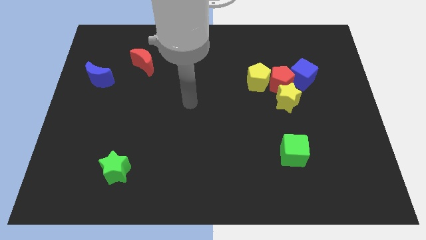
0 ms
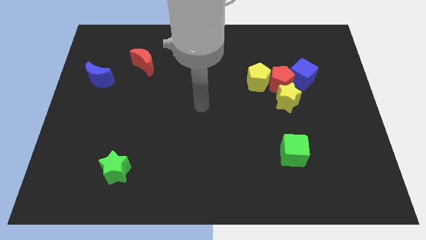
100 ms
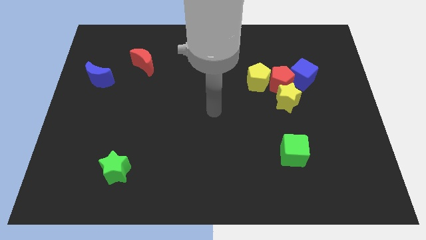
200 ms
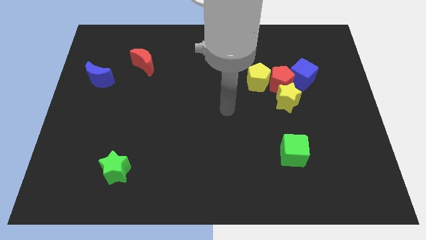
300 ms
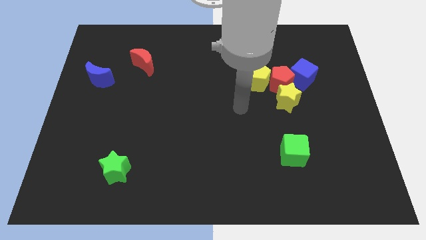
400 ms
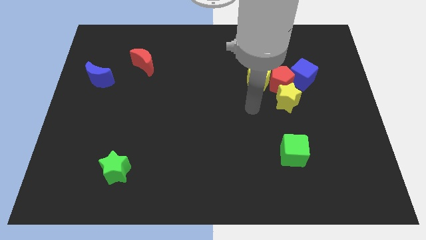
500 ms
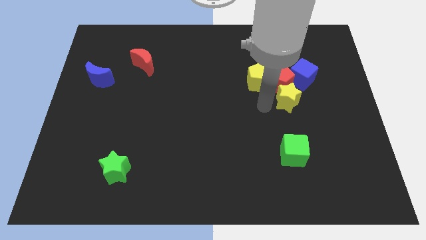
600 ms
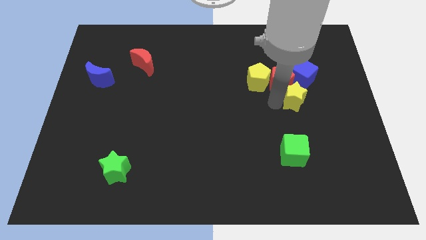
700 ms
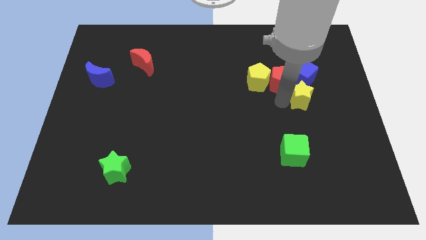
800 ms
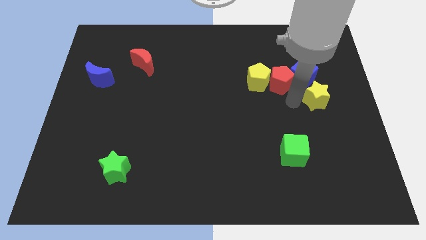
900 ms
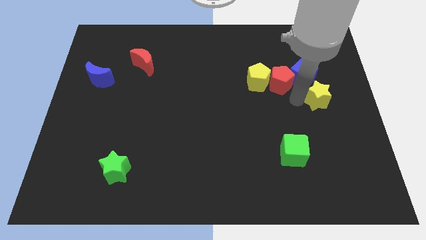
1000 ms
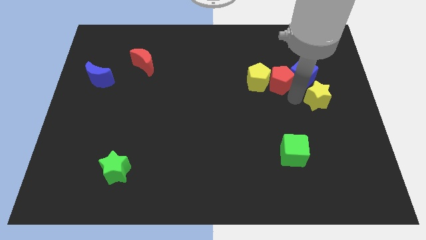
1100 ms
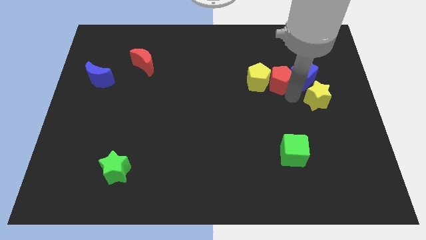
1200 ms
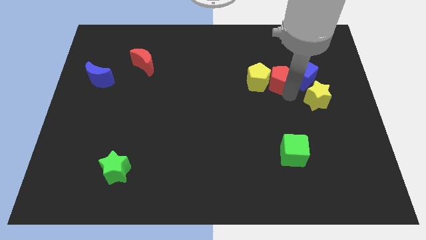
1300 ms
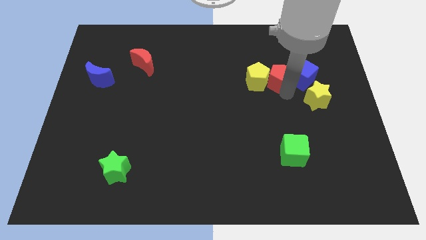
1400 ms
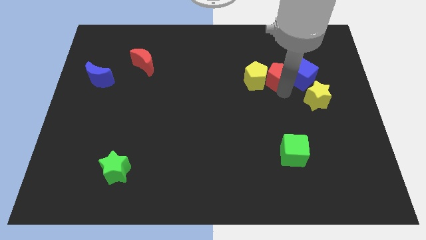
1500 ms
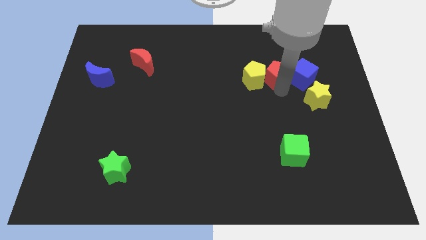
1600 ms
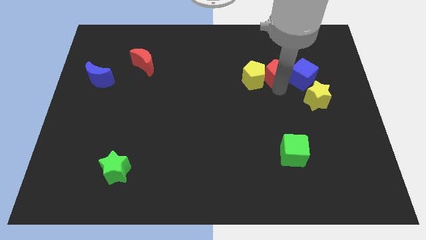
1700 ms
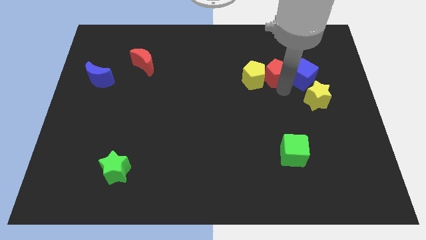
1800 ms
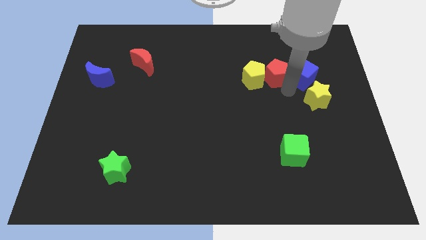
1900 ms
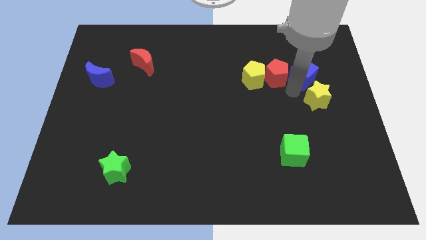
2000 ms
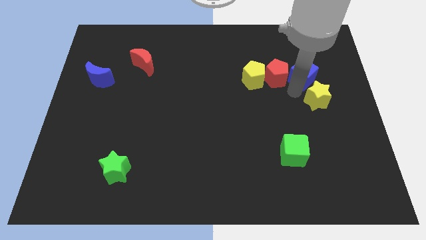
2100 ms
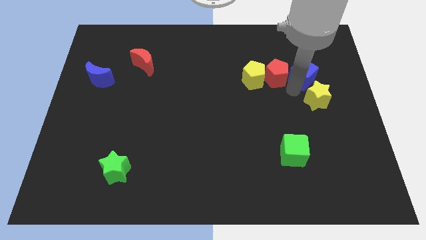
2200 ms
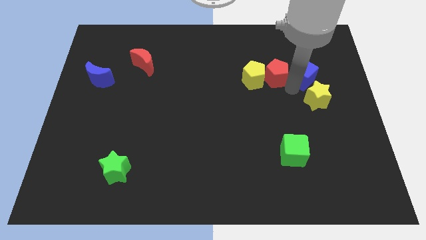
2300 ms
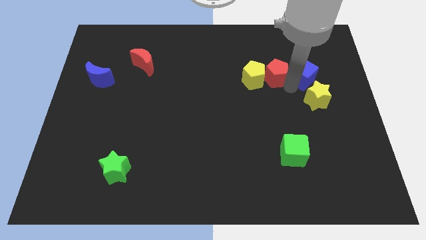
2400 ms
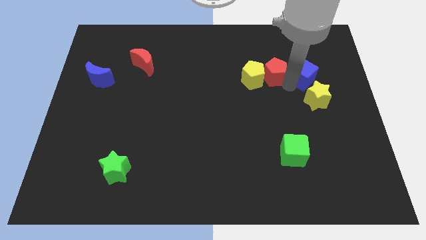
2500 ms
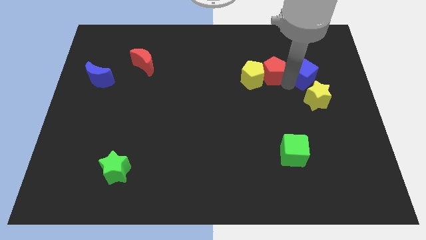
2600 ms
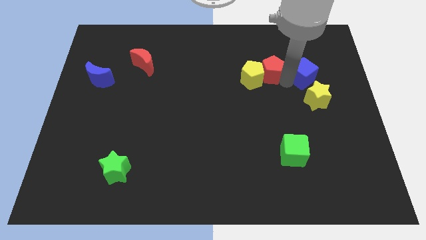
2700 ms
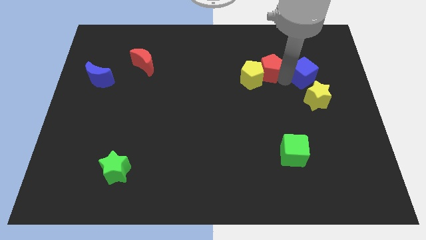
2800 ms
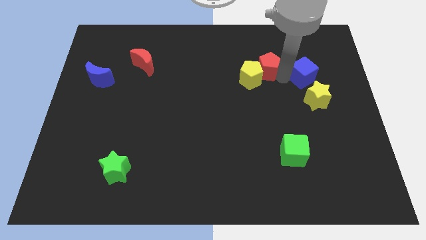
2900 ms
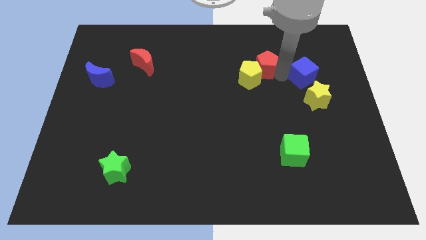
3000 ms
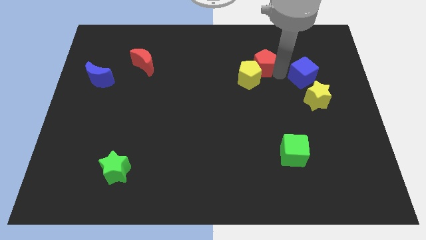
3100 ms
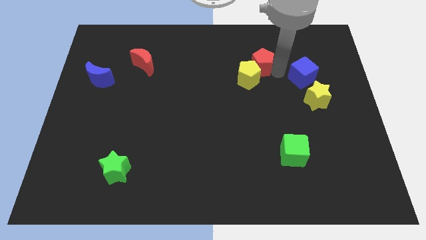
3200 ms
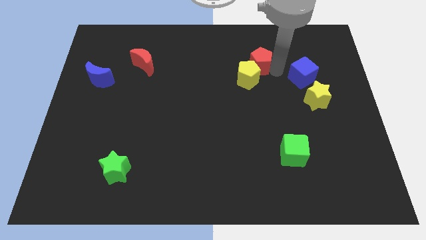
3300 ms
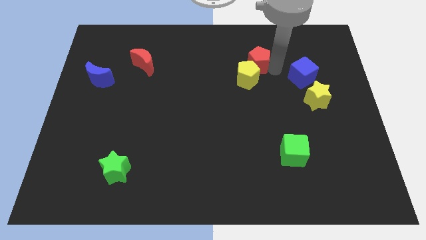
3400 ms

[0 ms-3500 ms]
separate the red pentagon from the yellow pentagon, yellow star, and blue cube

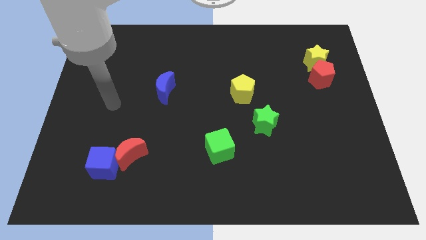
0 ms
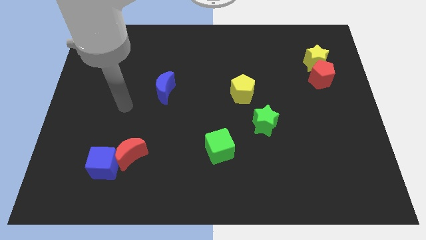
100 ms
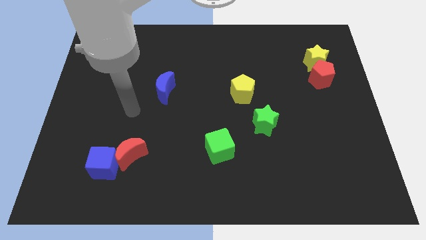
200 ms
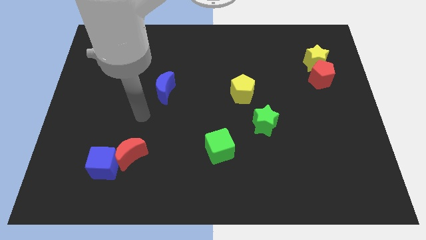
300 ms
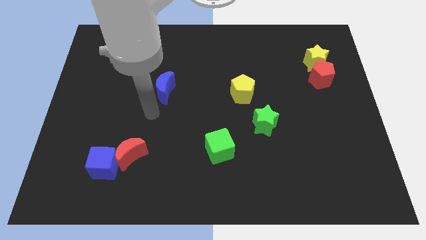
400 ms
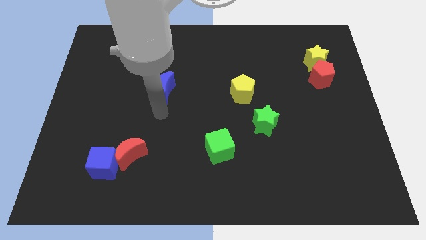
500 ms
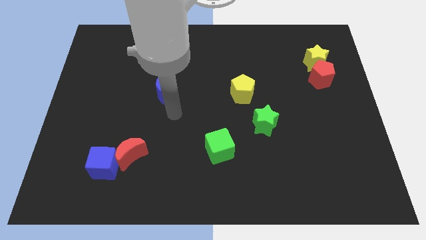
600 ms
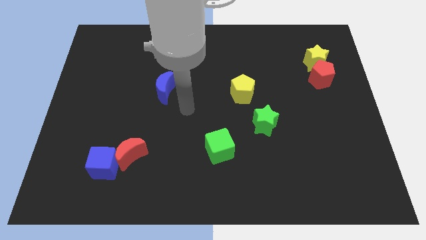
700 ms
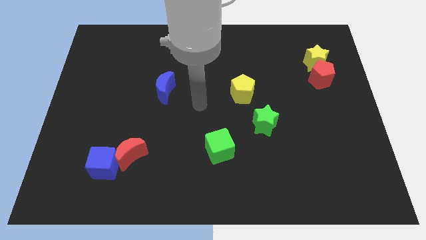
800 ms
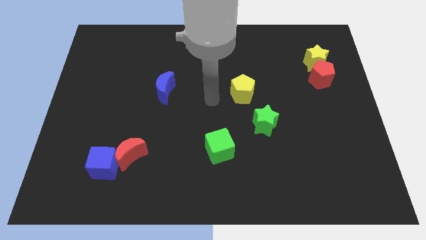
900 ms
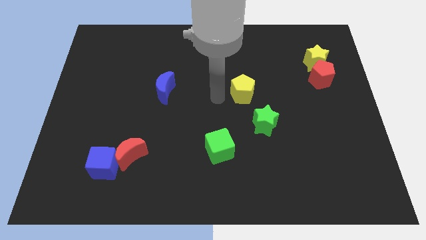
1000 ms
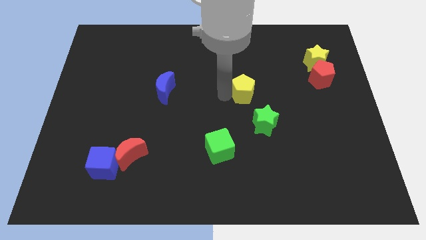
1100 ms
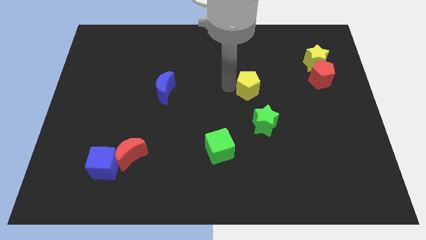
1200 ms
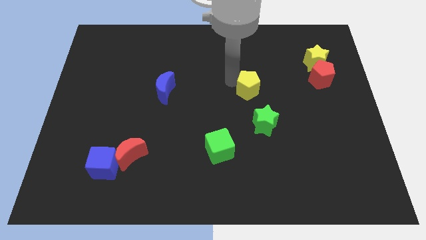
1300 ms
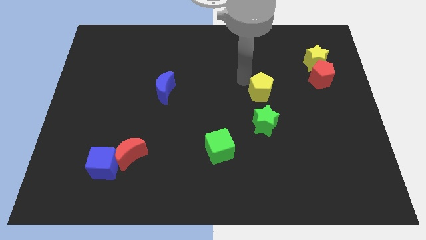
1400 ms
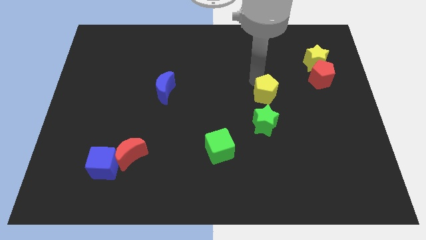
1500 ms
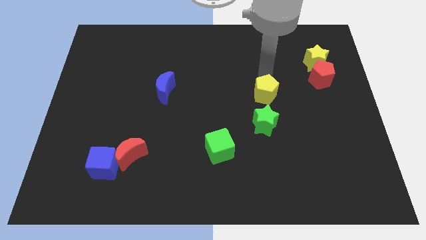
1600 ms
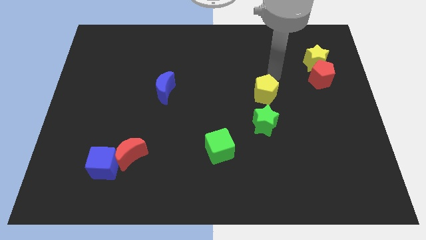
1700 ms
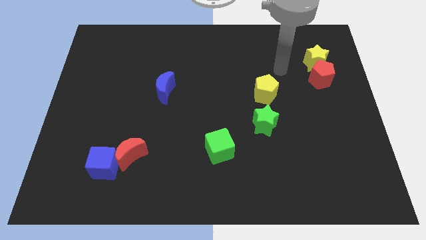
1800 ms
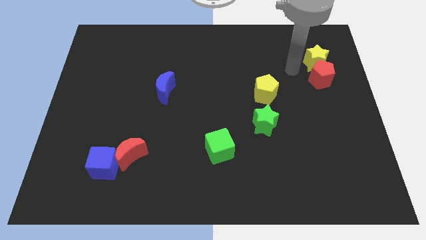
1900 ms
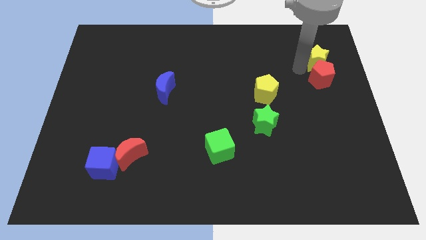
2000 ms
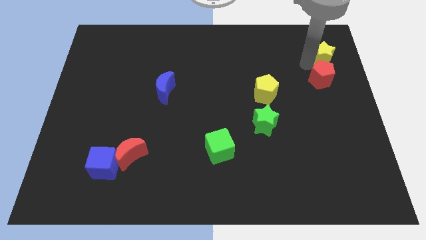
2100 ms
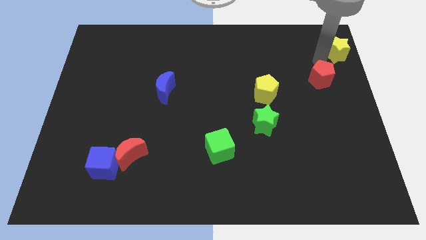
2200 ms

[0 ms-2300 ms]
move the red pentagon away from the yellow star

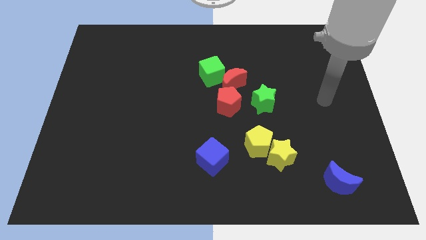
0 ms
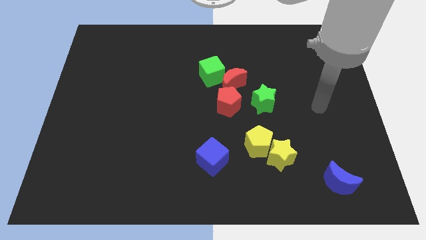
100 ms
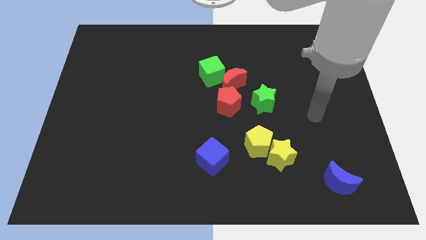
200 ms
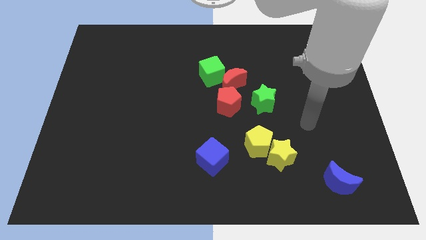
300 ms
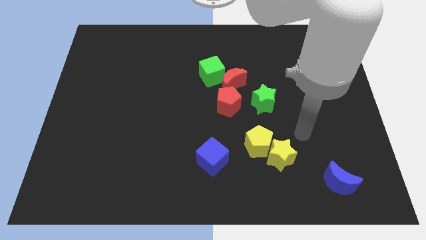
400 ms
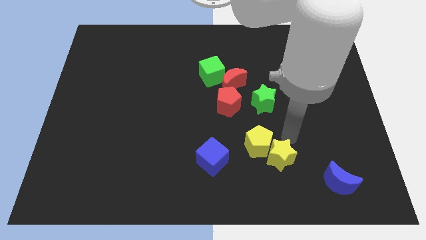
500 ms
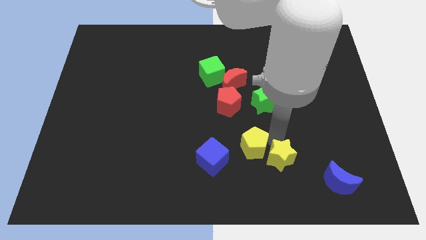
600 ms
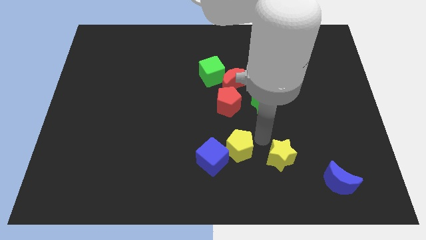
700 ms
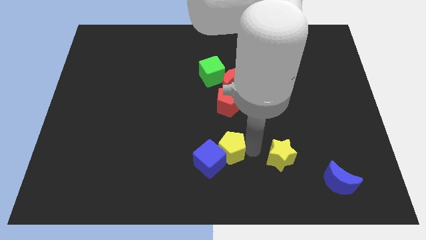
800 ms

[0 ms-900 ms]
move the yellow star away from the yellow pentagon

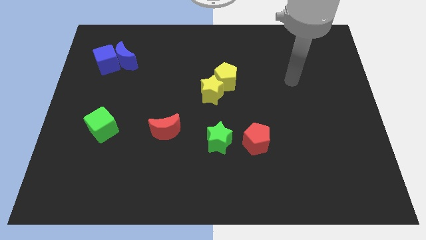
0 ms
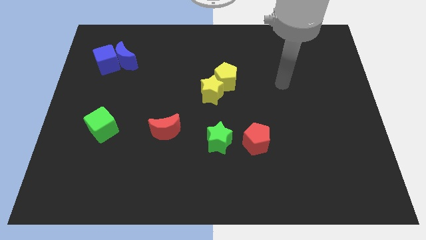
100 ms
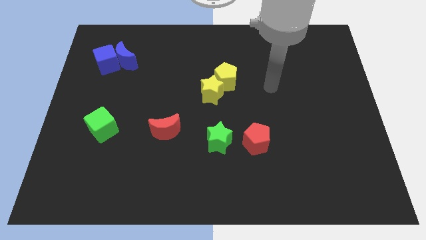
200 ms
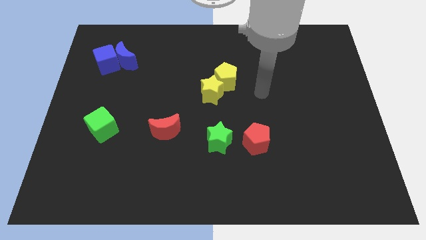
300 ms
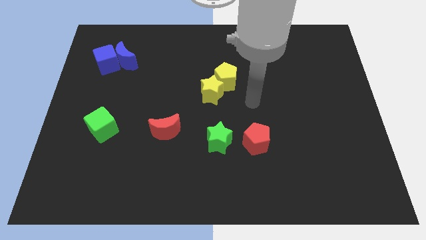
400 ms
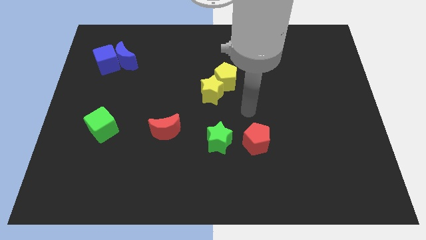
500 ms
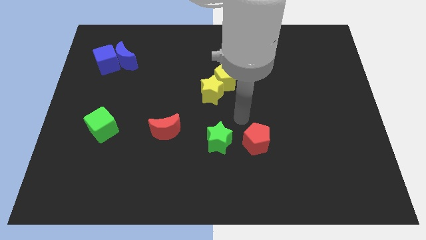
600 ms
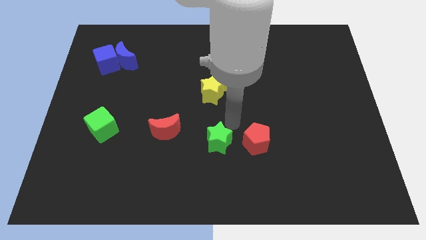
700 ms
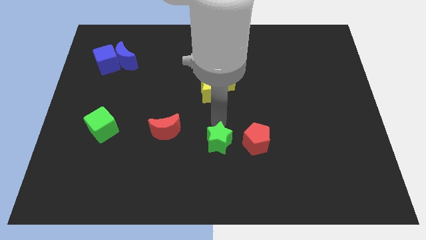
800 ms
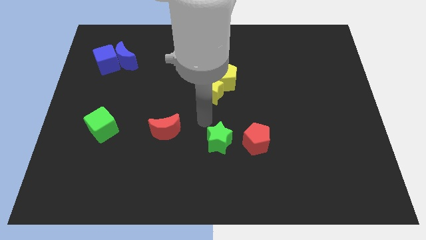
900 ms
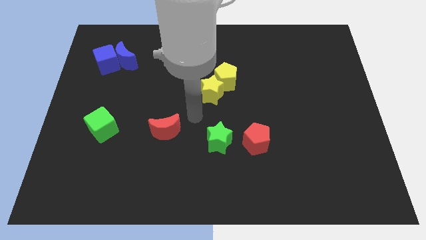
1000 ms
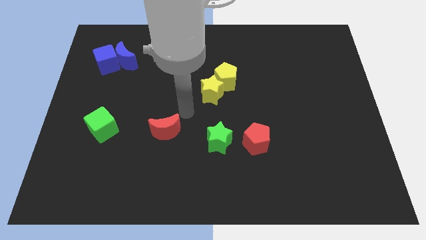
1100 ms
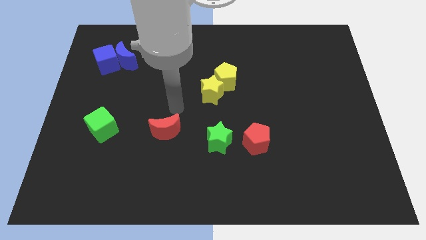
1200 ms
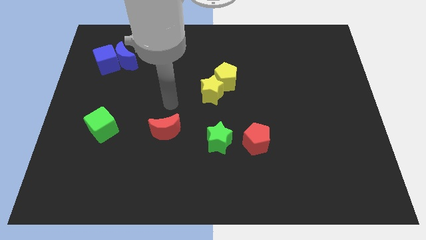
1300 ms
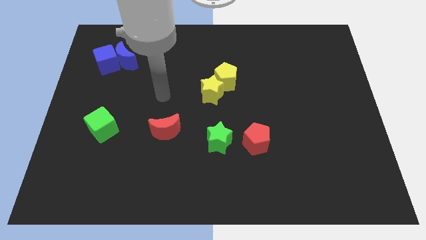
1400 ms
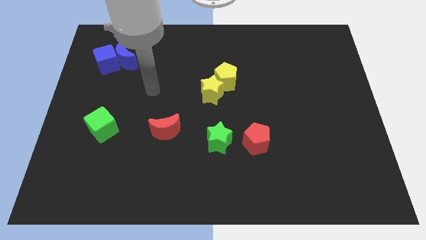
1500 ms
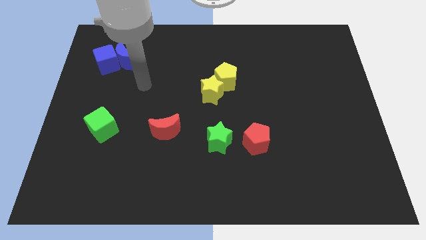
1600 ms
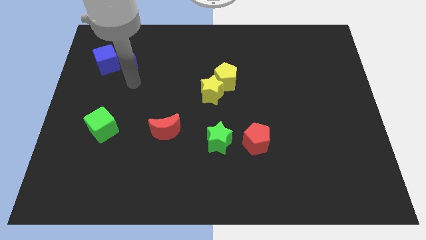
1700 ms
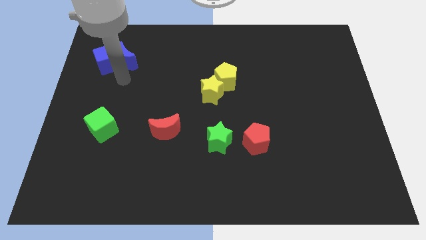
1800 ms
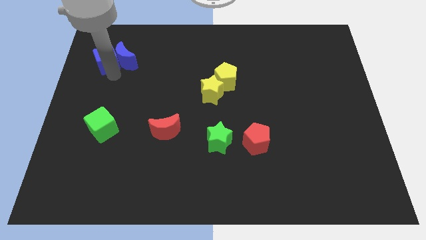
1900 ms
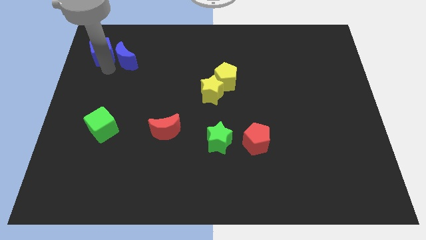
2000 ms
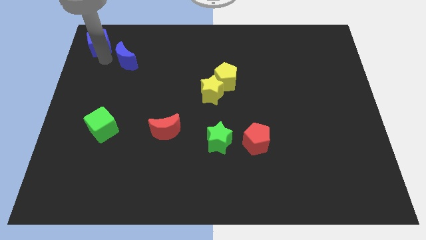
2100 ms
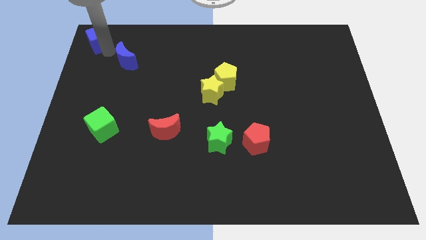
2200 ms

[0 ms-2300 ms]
separate the blue moon from the blue cube

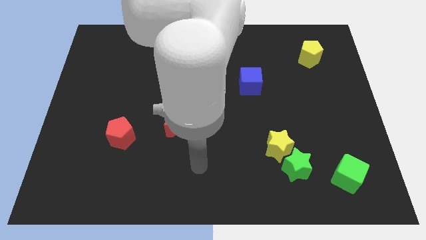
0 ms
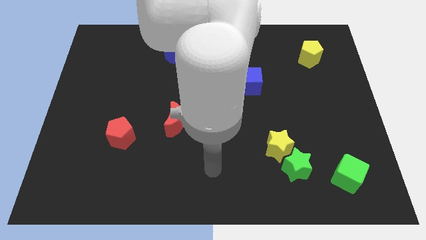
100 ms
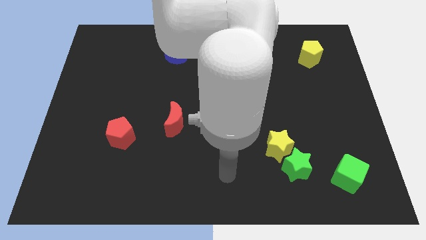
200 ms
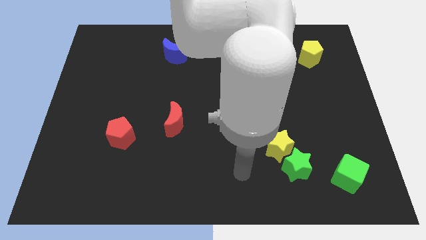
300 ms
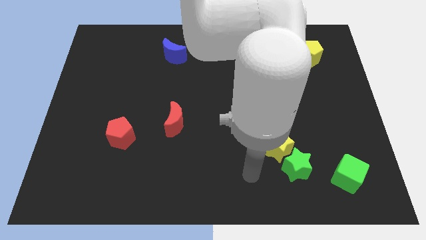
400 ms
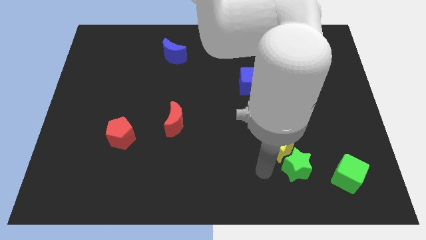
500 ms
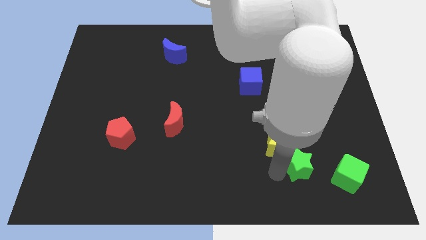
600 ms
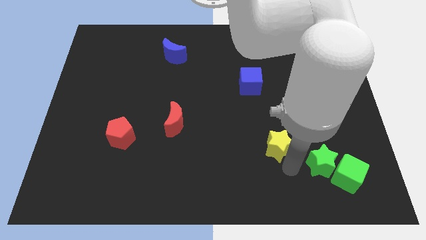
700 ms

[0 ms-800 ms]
separate the yellow star from the green star
